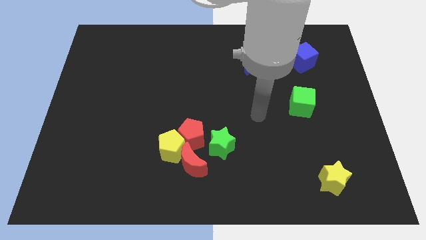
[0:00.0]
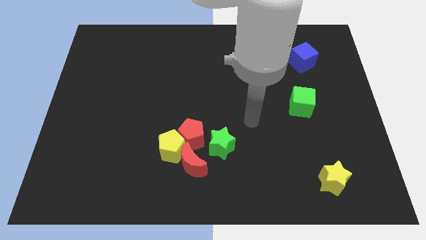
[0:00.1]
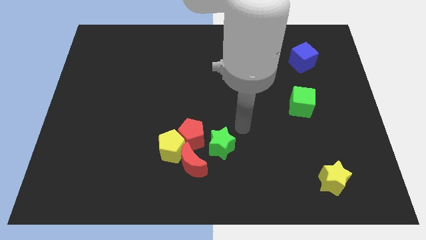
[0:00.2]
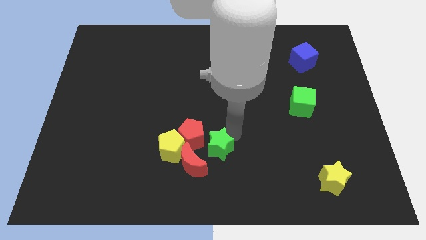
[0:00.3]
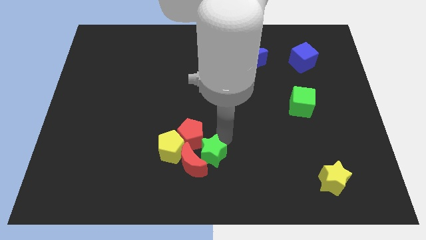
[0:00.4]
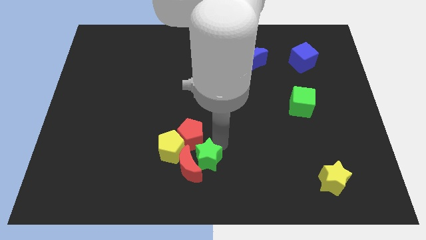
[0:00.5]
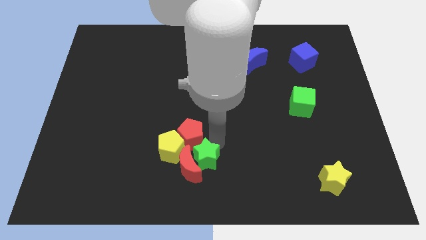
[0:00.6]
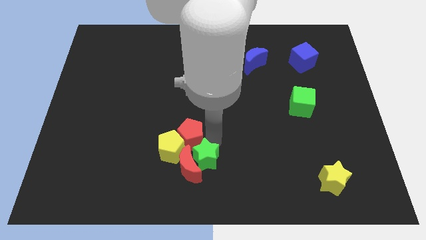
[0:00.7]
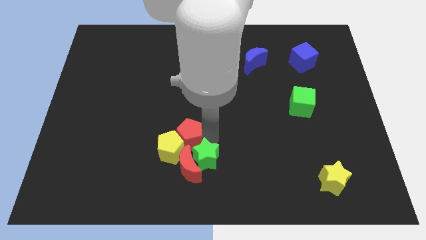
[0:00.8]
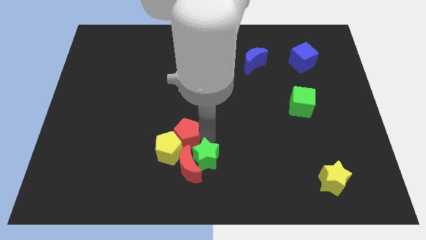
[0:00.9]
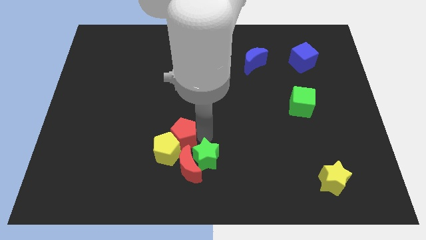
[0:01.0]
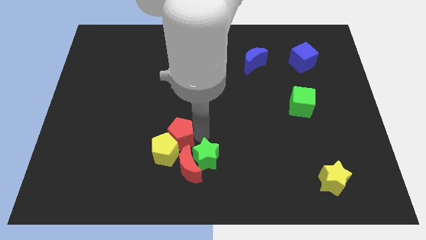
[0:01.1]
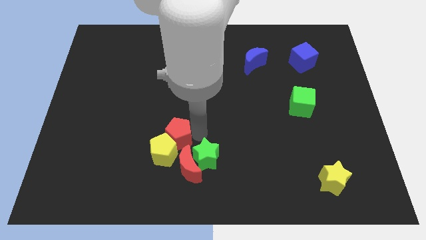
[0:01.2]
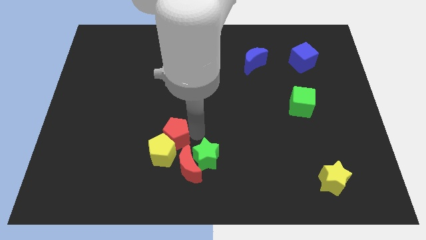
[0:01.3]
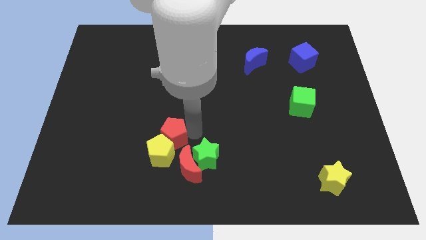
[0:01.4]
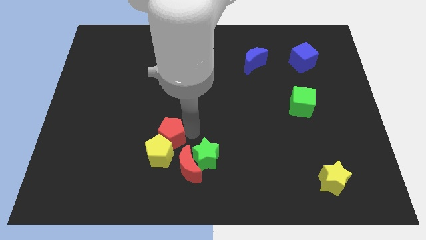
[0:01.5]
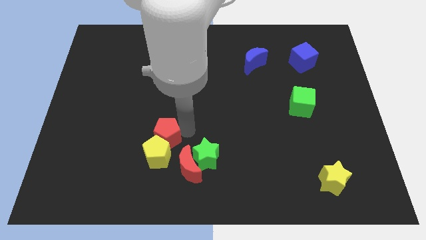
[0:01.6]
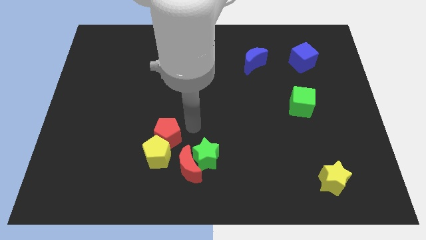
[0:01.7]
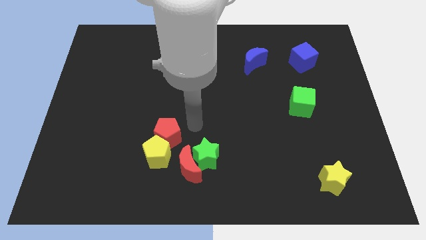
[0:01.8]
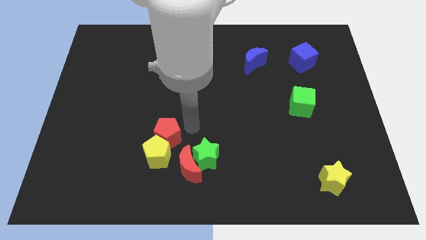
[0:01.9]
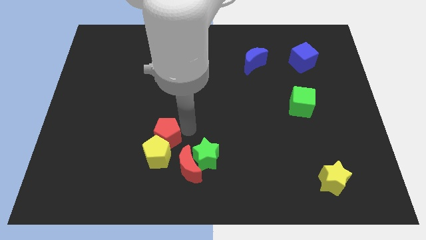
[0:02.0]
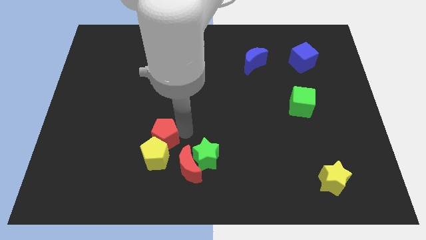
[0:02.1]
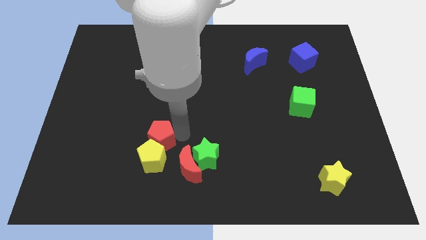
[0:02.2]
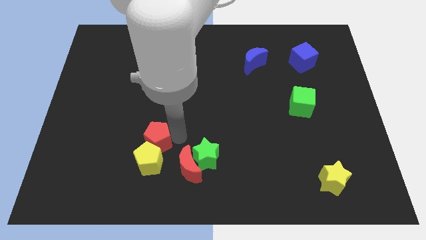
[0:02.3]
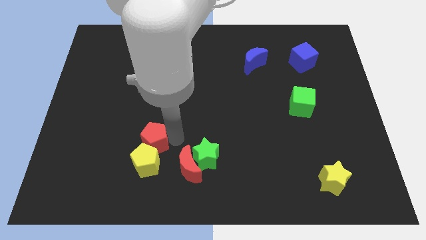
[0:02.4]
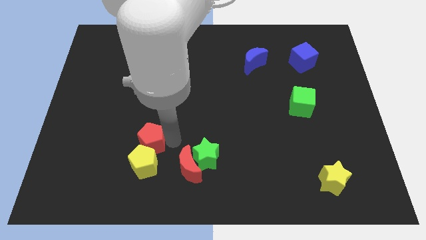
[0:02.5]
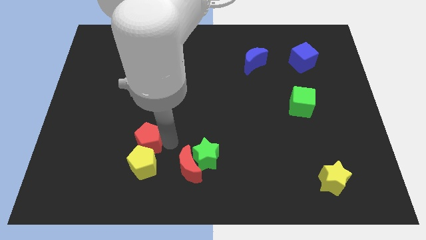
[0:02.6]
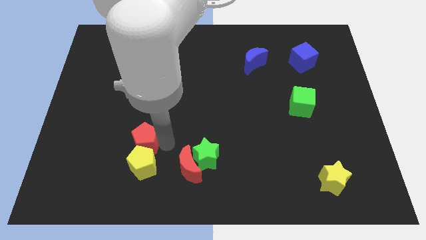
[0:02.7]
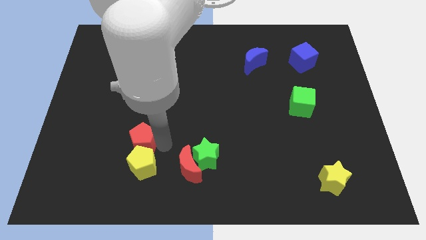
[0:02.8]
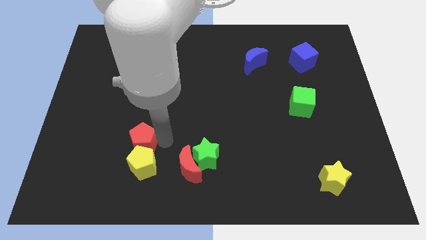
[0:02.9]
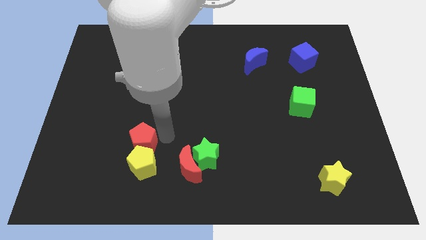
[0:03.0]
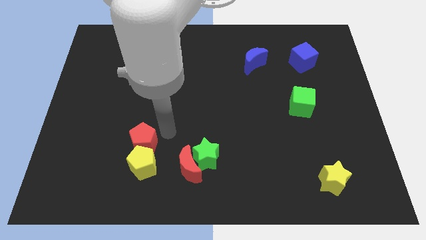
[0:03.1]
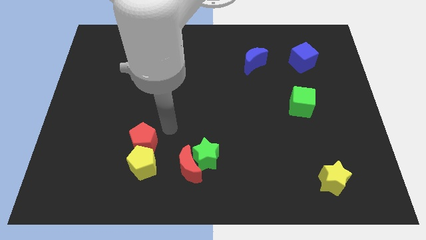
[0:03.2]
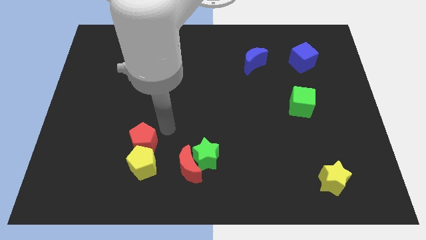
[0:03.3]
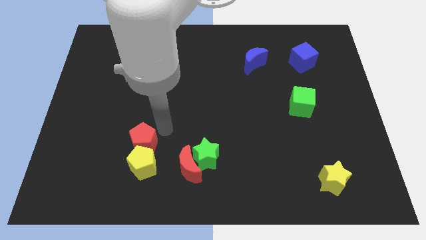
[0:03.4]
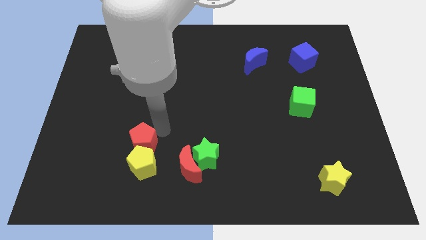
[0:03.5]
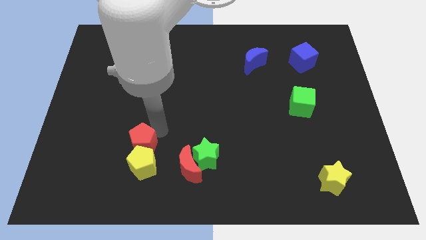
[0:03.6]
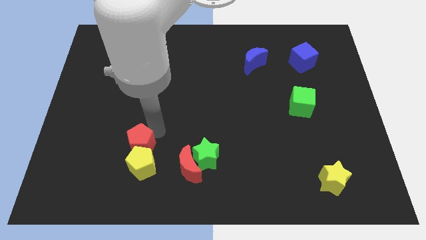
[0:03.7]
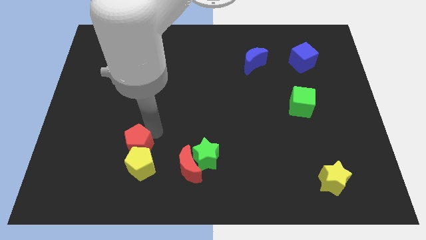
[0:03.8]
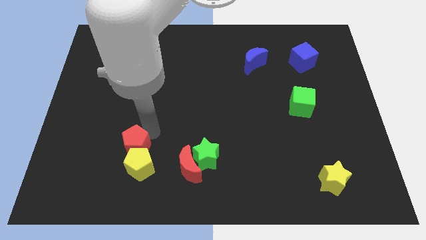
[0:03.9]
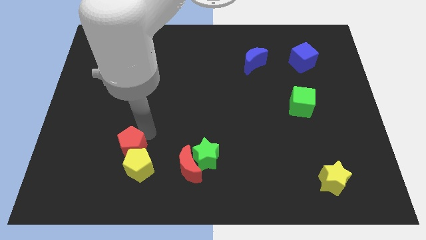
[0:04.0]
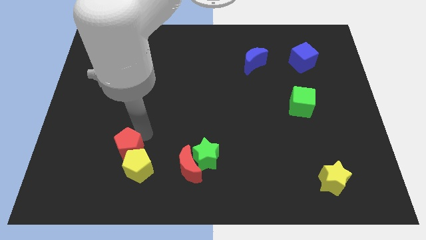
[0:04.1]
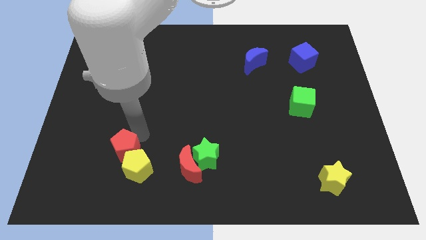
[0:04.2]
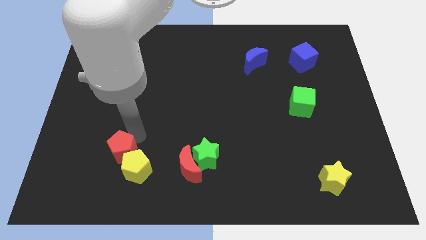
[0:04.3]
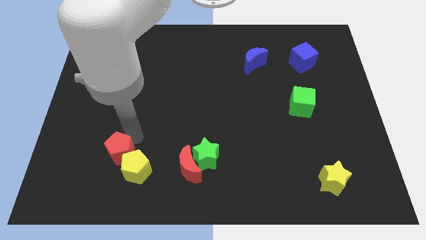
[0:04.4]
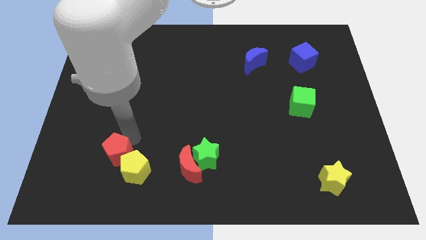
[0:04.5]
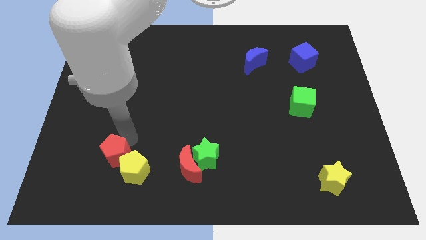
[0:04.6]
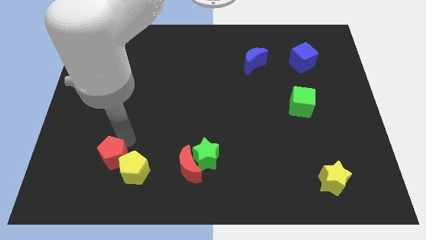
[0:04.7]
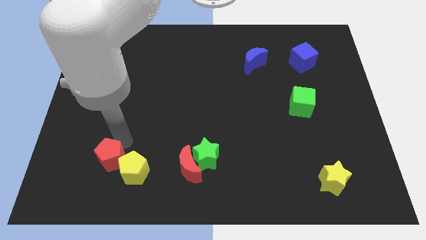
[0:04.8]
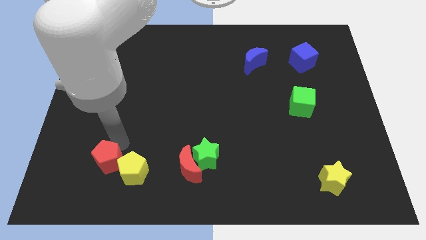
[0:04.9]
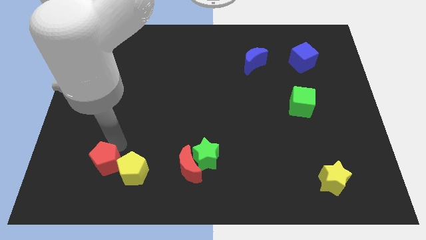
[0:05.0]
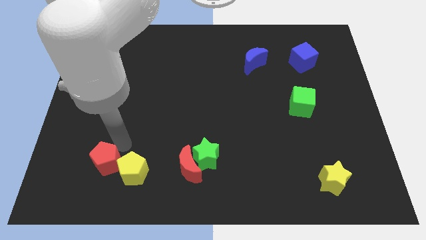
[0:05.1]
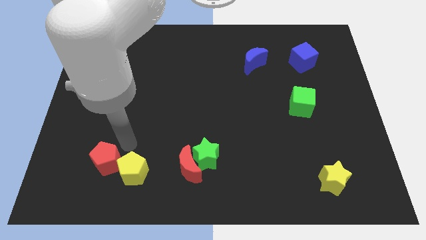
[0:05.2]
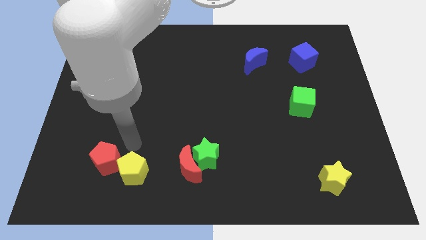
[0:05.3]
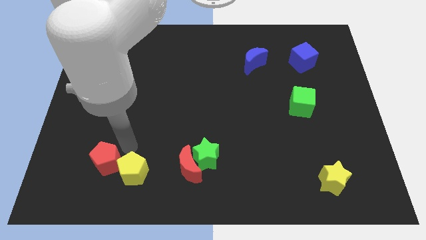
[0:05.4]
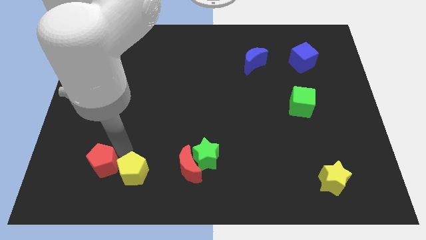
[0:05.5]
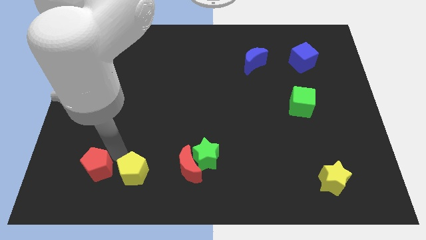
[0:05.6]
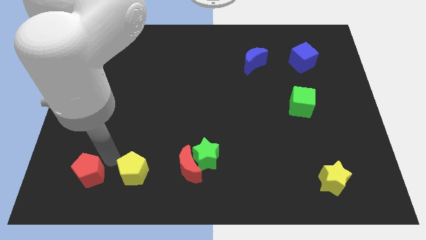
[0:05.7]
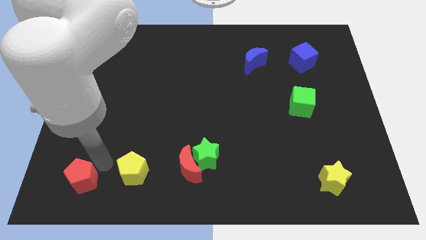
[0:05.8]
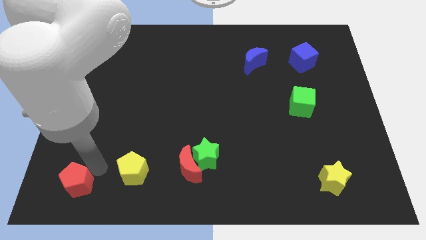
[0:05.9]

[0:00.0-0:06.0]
slide the red pentagon to the bottom left of the board

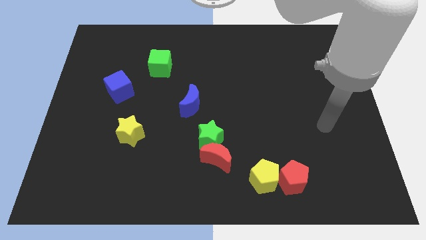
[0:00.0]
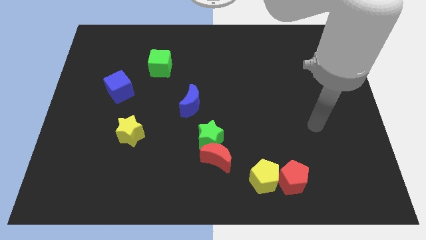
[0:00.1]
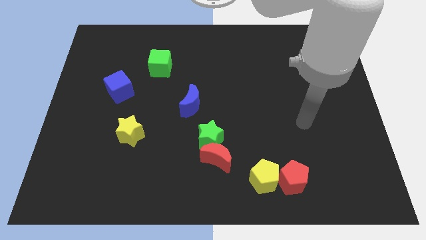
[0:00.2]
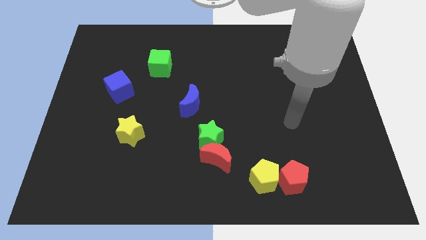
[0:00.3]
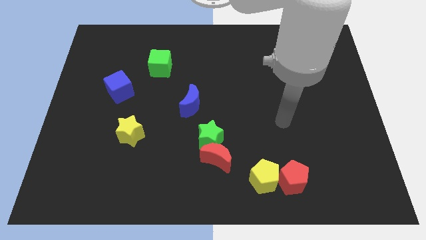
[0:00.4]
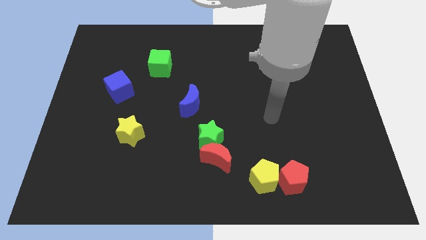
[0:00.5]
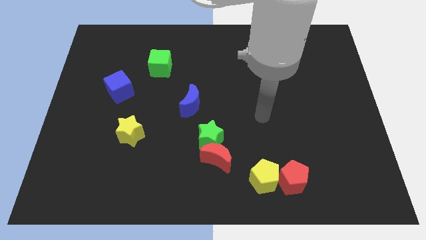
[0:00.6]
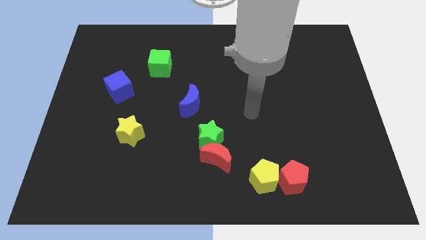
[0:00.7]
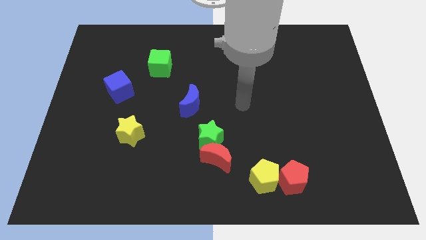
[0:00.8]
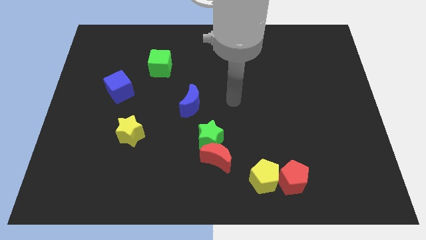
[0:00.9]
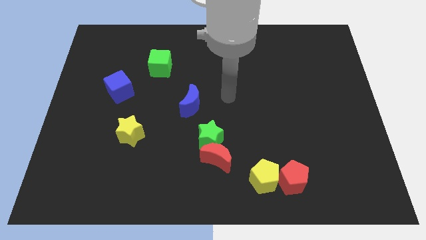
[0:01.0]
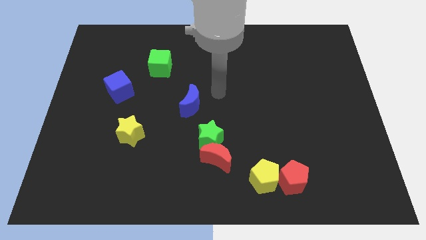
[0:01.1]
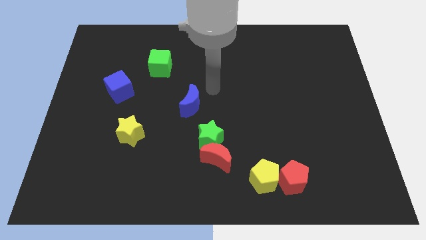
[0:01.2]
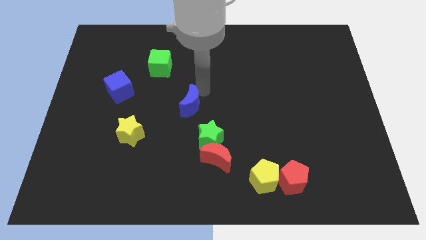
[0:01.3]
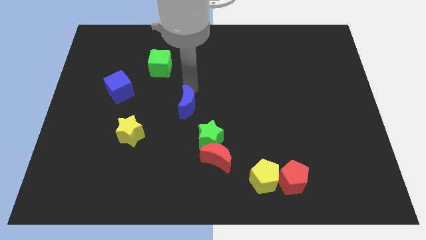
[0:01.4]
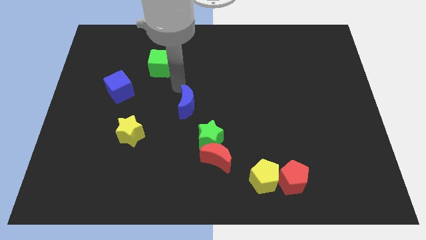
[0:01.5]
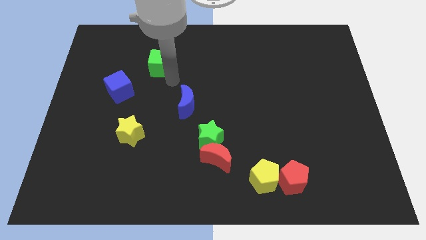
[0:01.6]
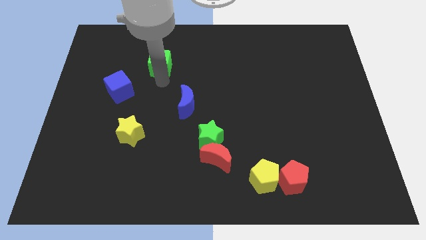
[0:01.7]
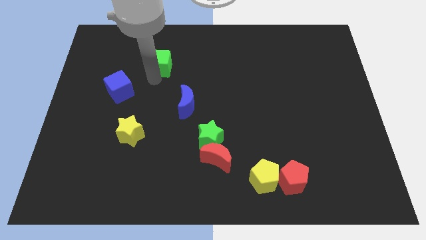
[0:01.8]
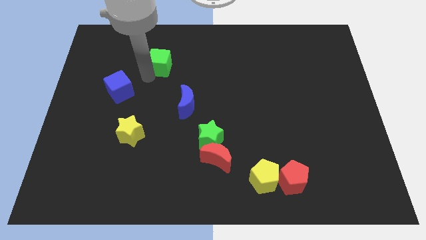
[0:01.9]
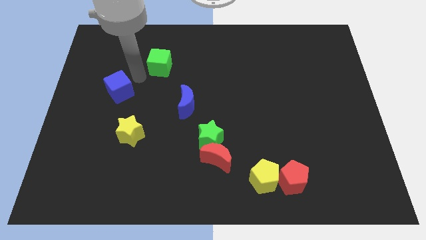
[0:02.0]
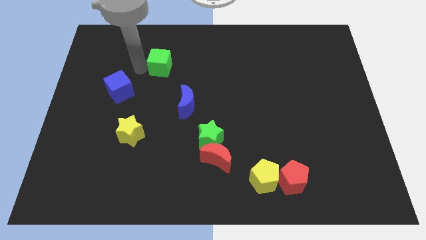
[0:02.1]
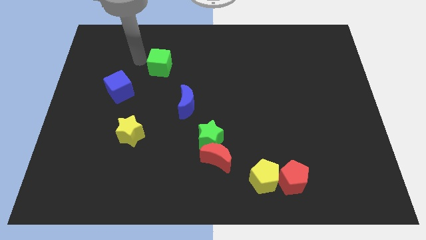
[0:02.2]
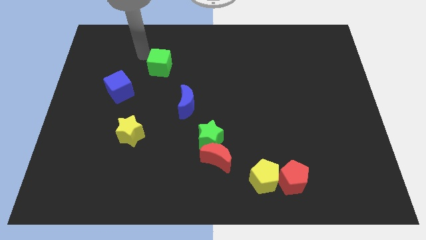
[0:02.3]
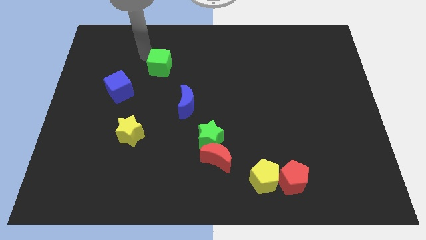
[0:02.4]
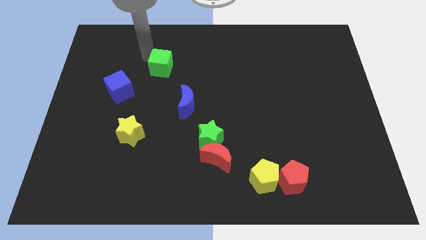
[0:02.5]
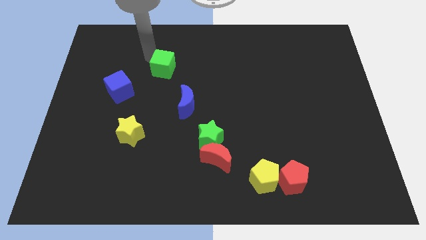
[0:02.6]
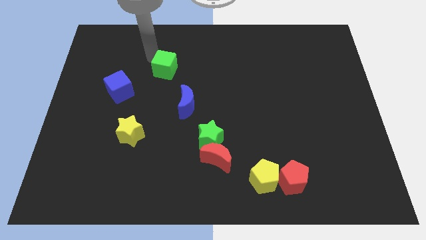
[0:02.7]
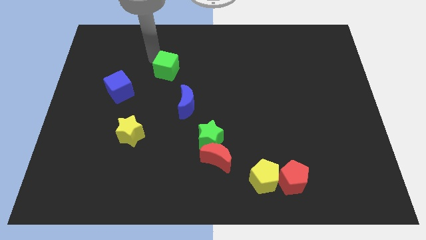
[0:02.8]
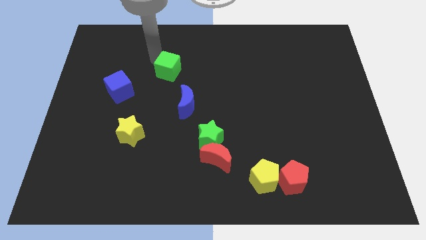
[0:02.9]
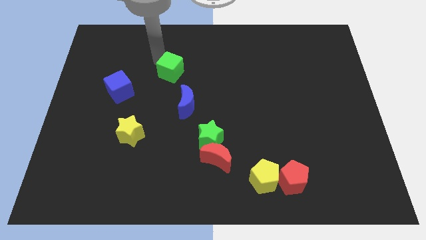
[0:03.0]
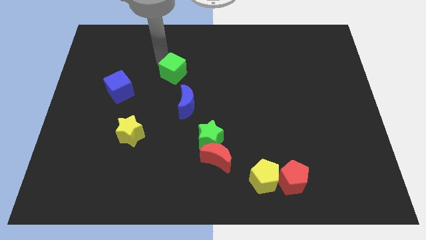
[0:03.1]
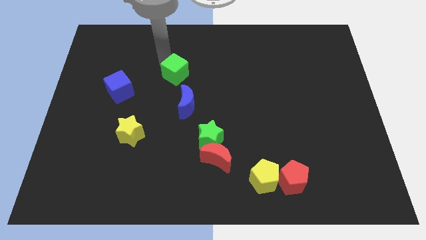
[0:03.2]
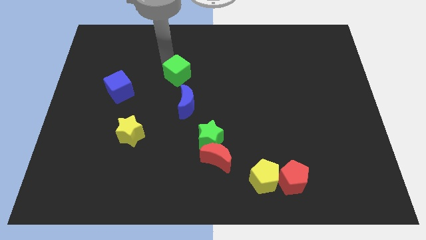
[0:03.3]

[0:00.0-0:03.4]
move the green cube to the center of the board
